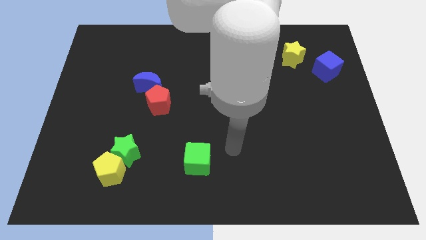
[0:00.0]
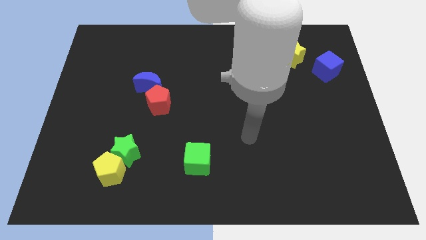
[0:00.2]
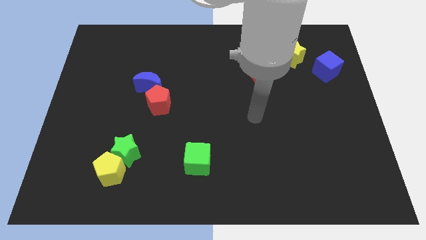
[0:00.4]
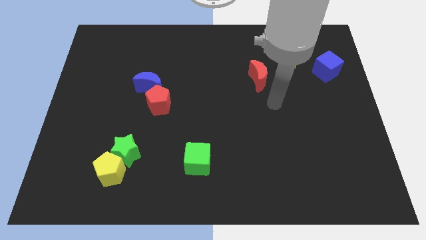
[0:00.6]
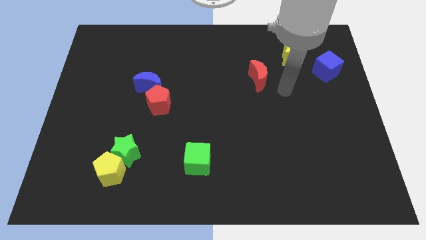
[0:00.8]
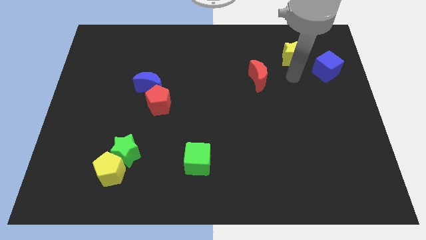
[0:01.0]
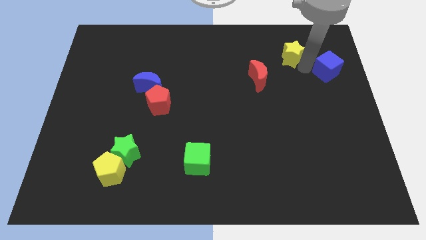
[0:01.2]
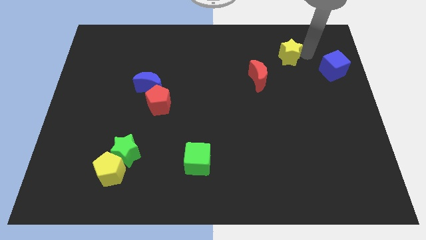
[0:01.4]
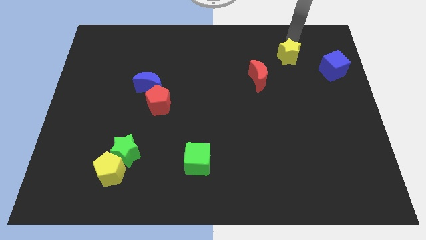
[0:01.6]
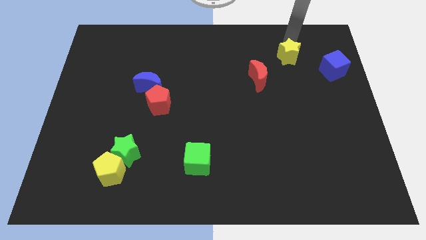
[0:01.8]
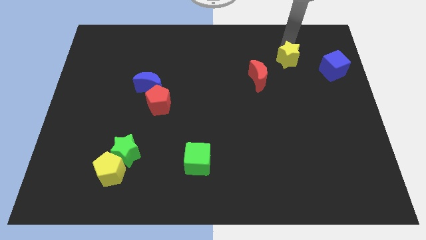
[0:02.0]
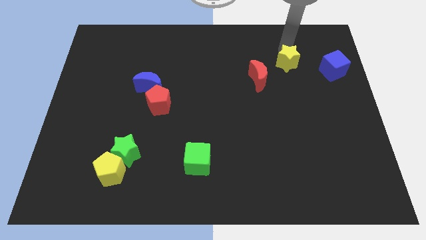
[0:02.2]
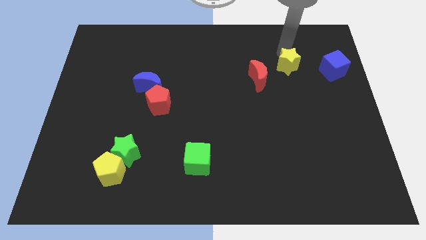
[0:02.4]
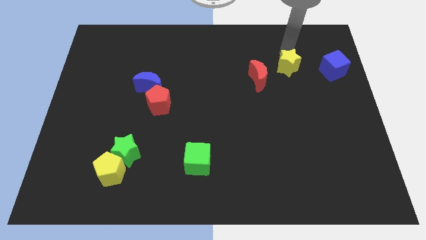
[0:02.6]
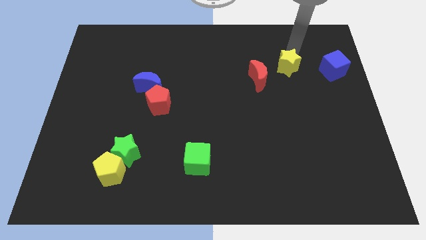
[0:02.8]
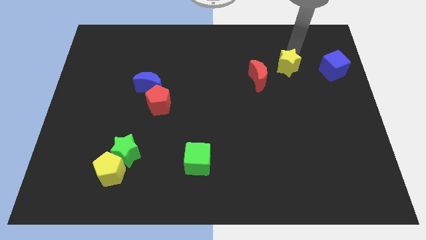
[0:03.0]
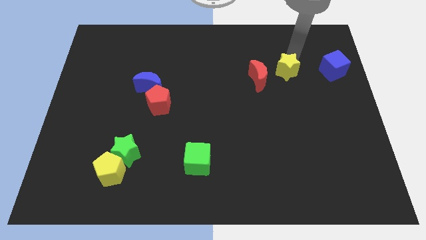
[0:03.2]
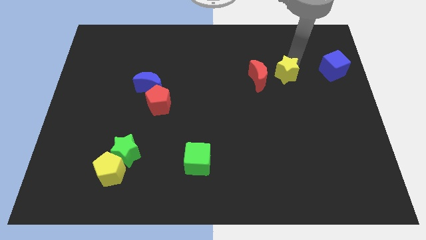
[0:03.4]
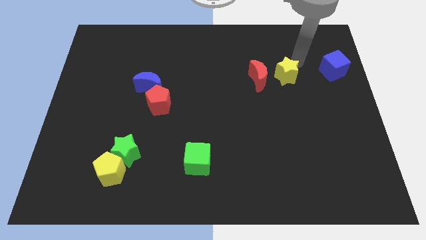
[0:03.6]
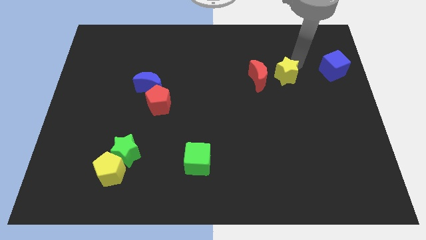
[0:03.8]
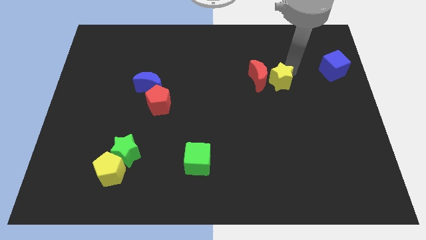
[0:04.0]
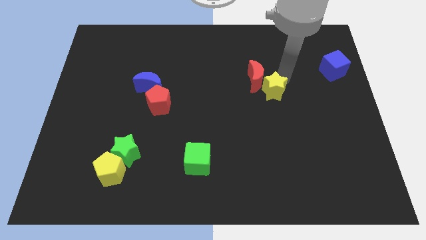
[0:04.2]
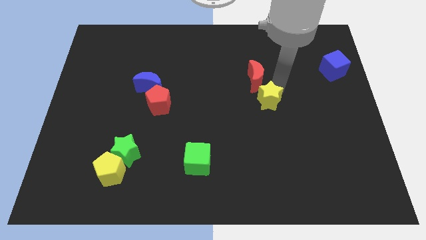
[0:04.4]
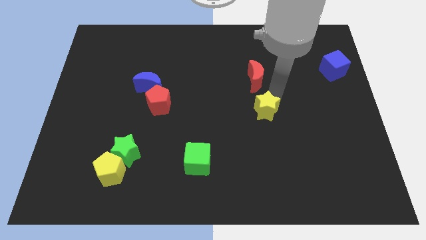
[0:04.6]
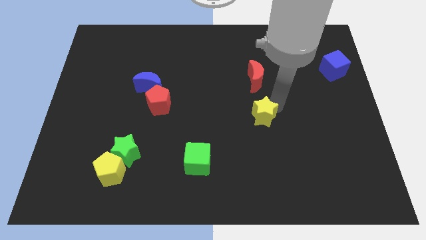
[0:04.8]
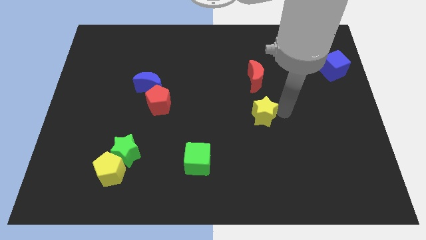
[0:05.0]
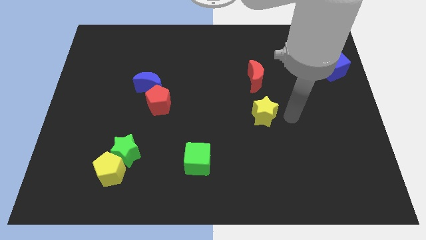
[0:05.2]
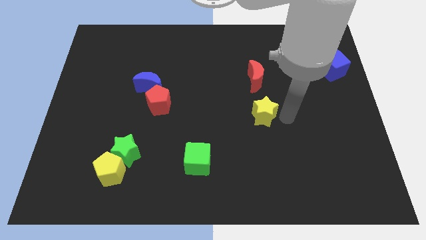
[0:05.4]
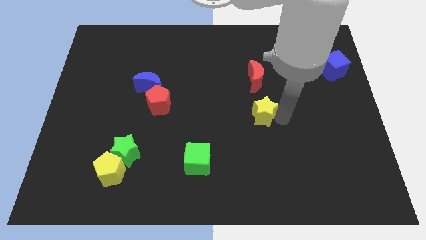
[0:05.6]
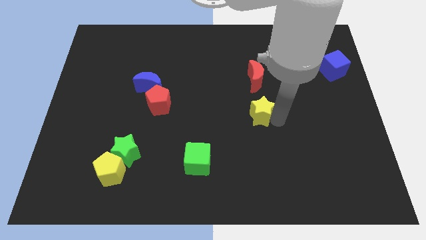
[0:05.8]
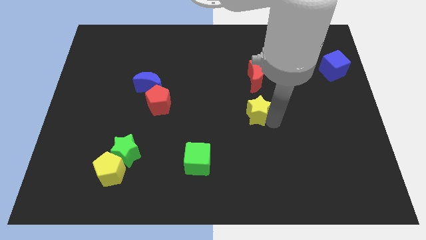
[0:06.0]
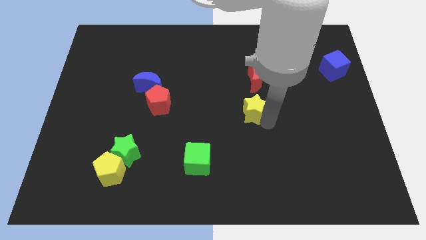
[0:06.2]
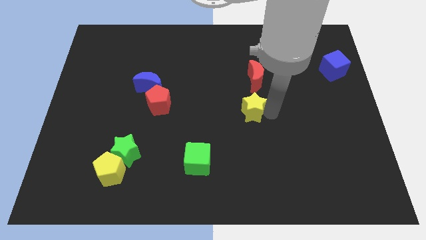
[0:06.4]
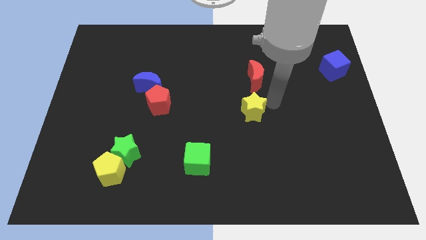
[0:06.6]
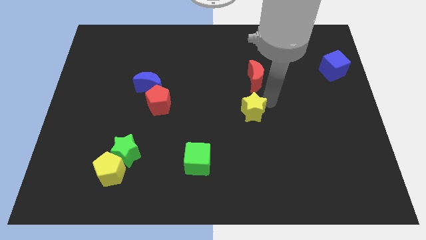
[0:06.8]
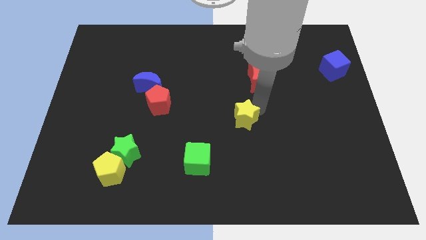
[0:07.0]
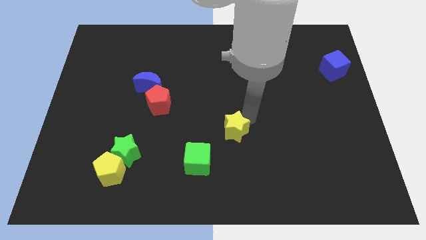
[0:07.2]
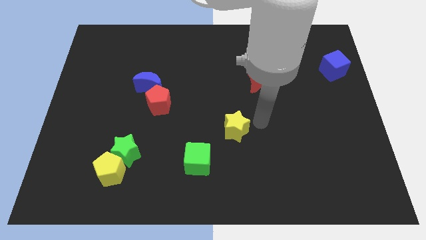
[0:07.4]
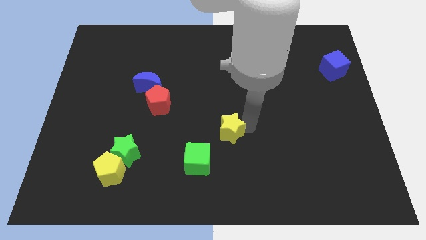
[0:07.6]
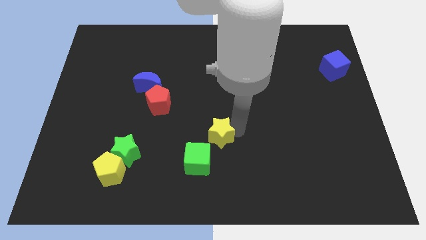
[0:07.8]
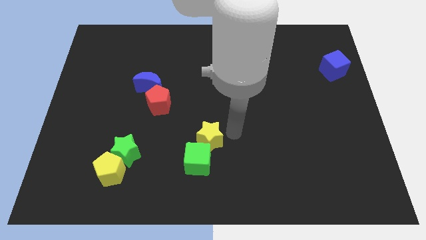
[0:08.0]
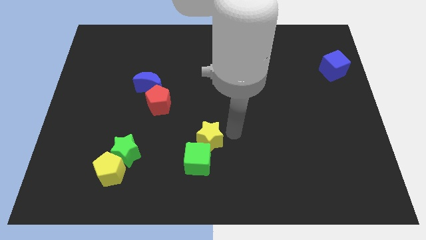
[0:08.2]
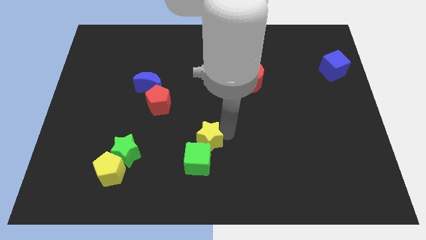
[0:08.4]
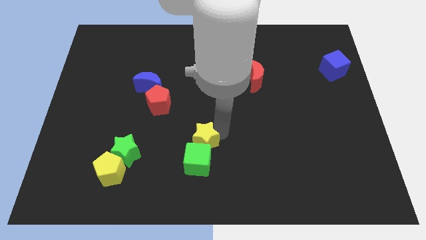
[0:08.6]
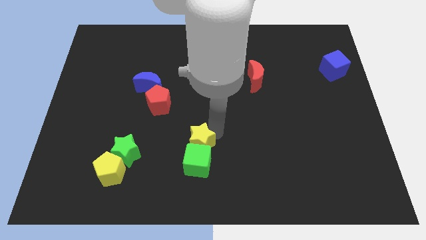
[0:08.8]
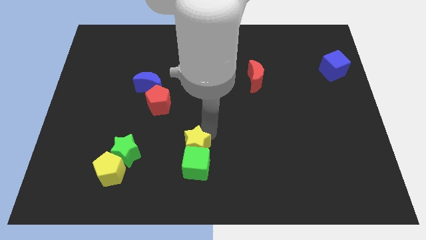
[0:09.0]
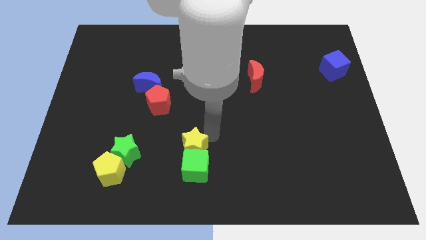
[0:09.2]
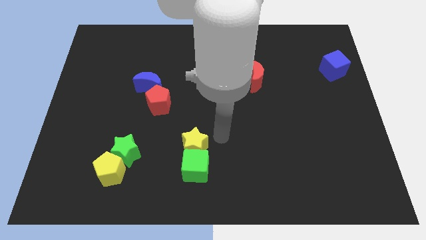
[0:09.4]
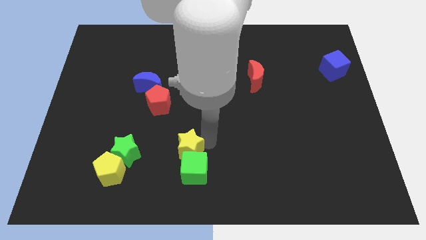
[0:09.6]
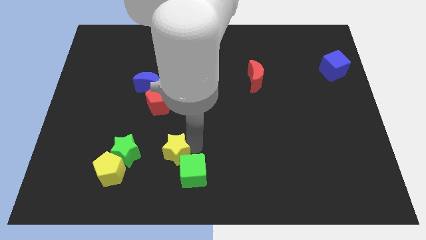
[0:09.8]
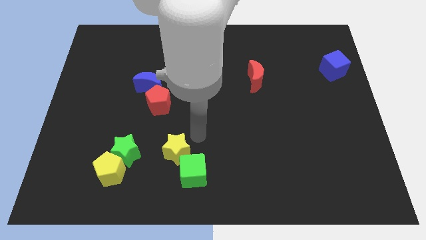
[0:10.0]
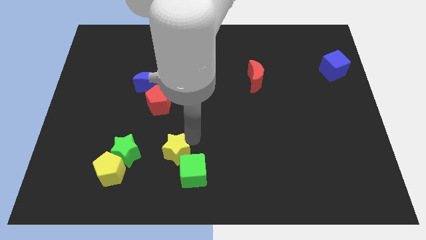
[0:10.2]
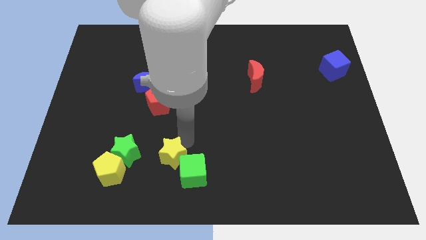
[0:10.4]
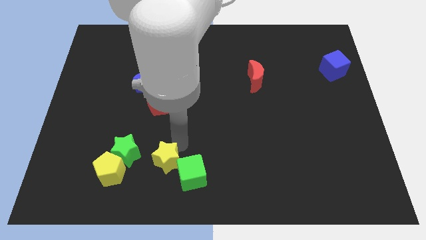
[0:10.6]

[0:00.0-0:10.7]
put the yellow star diagonally down and to the right of the green star

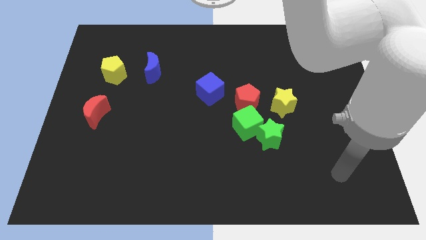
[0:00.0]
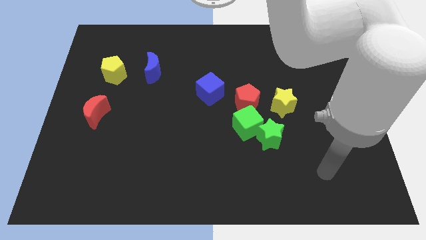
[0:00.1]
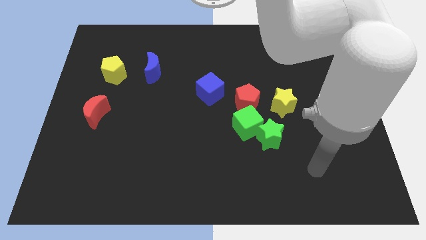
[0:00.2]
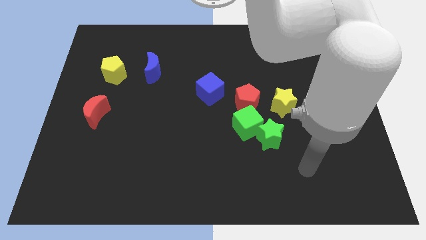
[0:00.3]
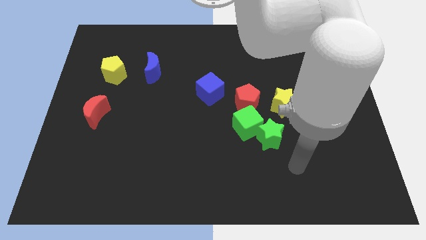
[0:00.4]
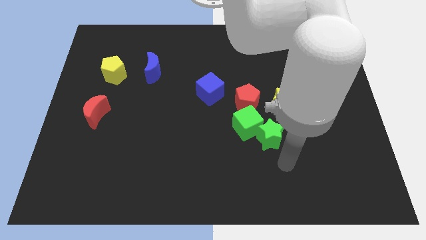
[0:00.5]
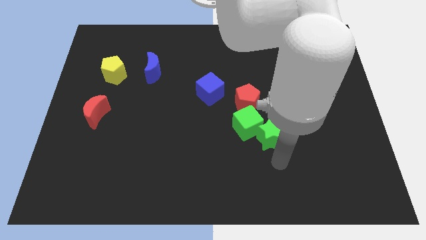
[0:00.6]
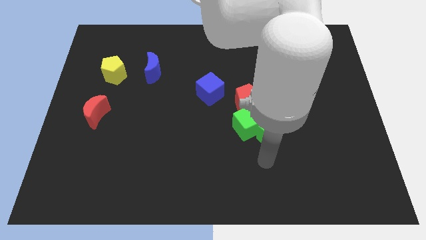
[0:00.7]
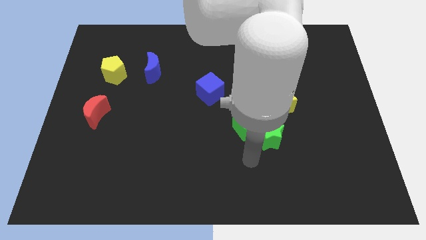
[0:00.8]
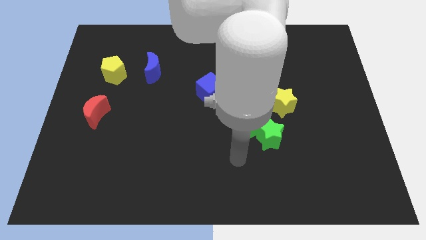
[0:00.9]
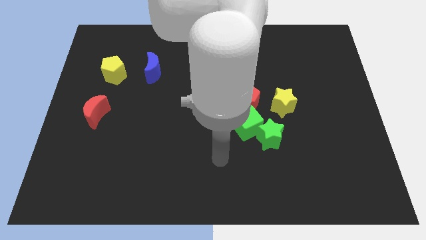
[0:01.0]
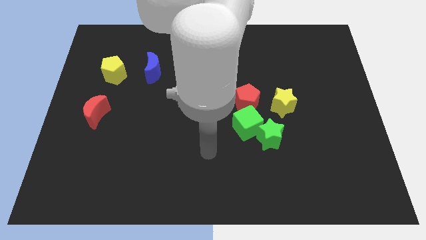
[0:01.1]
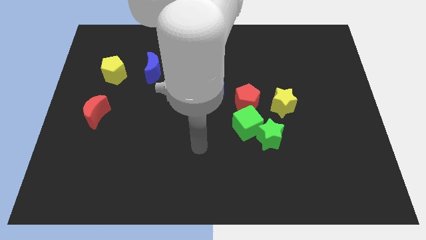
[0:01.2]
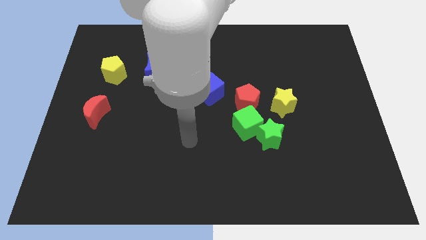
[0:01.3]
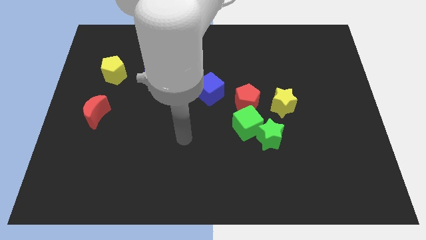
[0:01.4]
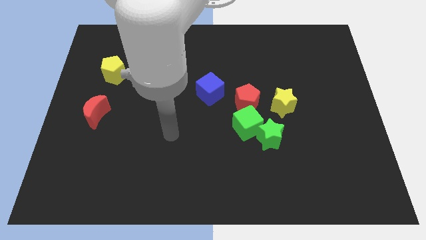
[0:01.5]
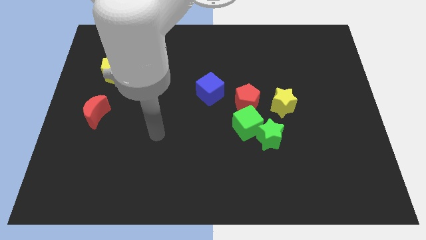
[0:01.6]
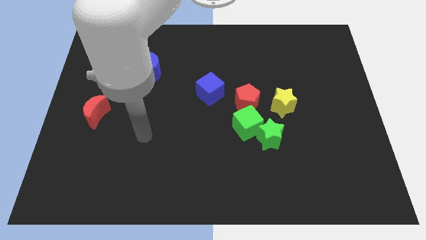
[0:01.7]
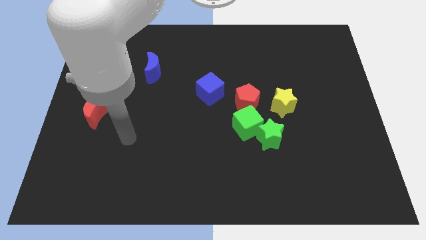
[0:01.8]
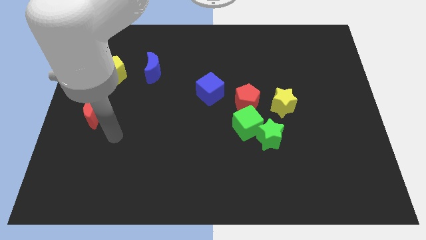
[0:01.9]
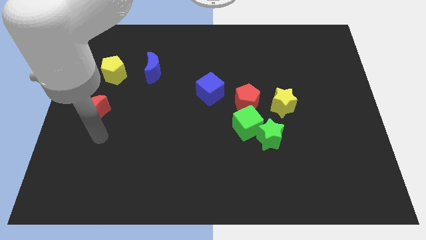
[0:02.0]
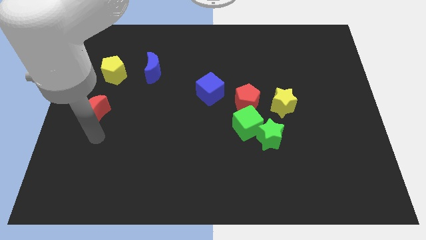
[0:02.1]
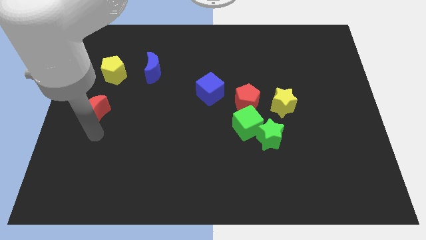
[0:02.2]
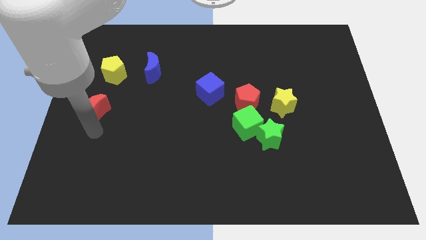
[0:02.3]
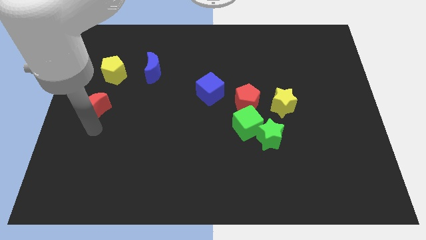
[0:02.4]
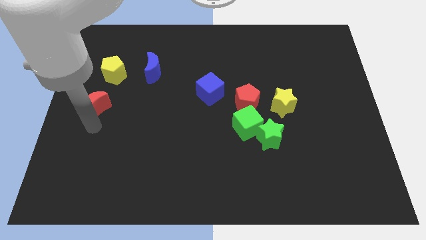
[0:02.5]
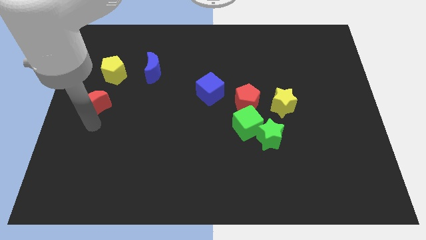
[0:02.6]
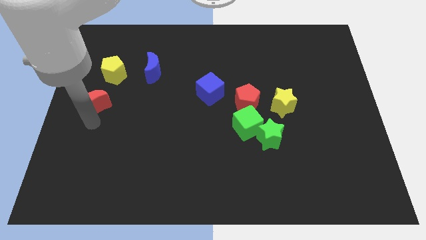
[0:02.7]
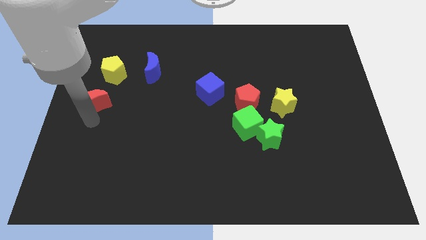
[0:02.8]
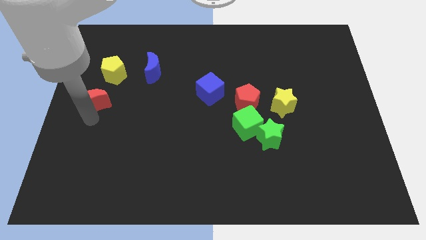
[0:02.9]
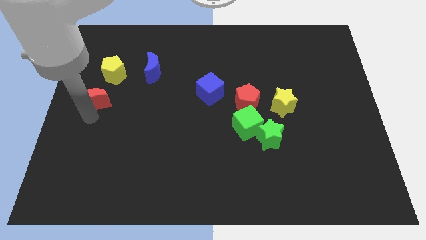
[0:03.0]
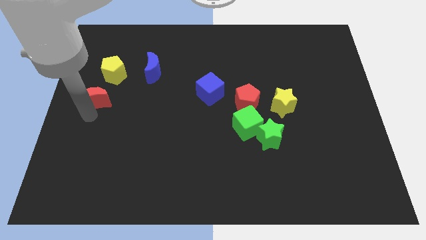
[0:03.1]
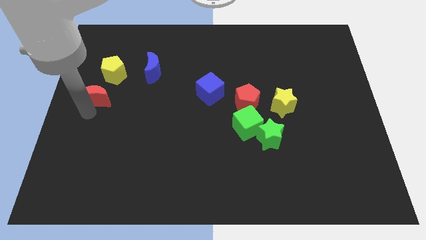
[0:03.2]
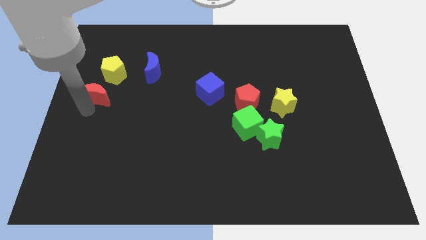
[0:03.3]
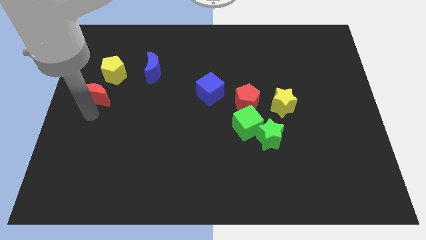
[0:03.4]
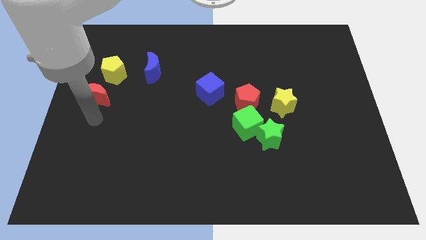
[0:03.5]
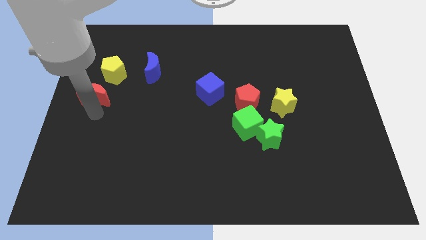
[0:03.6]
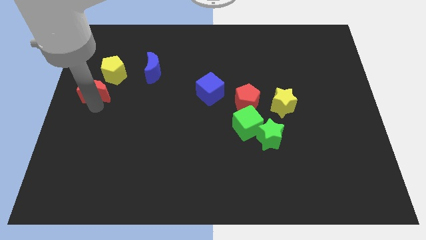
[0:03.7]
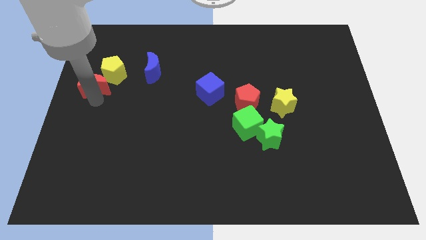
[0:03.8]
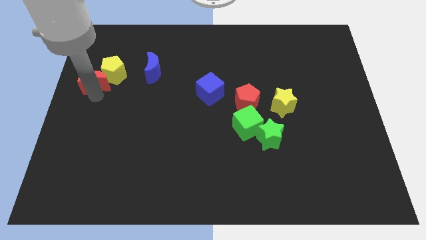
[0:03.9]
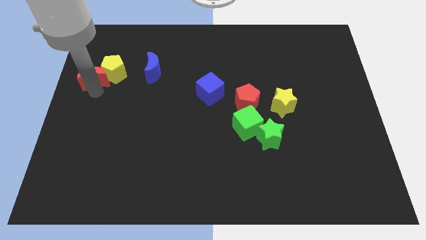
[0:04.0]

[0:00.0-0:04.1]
slide the red moon to the left side of the blue moon
